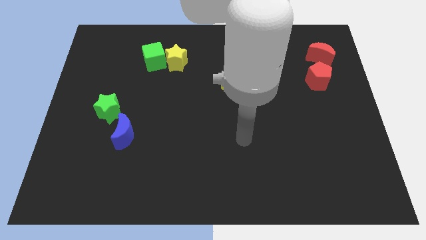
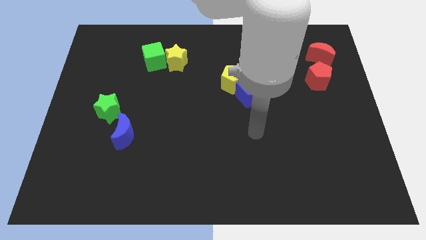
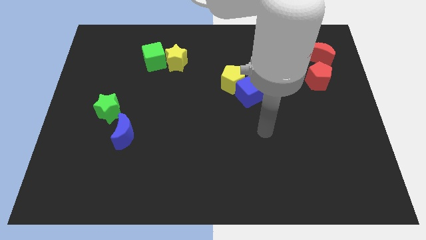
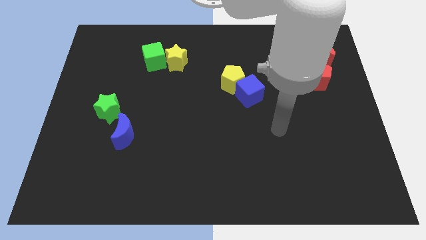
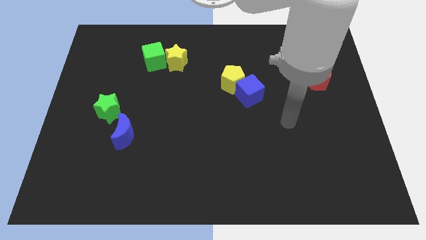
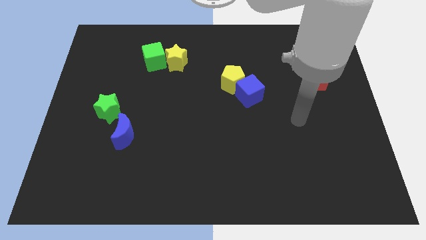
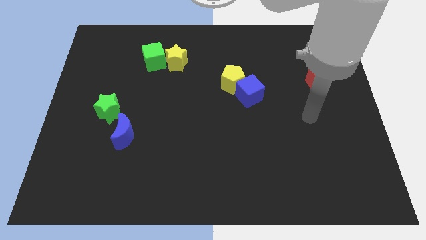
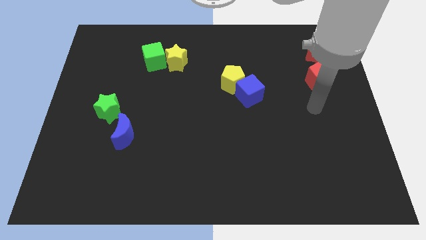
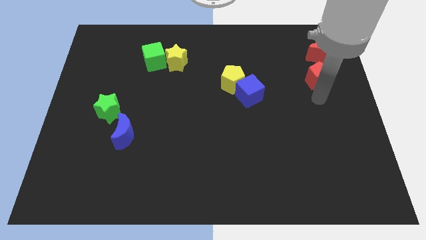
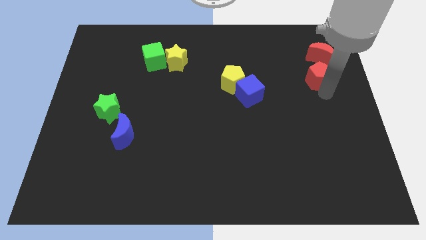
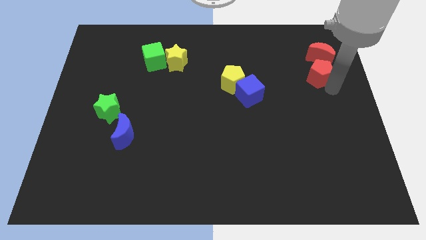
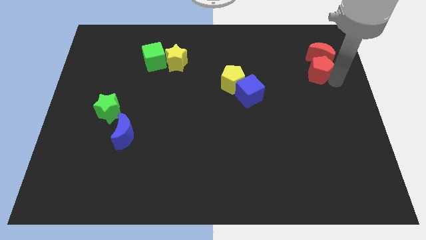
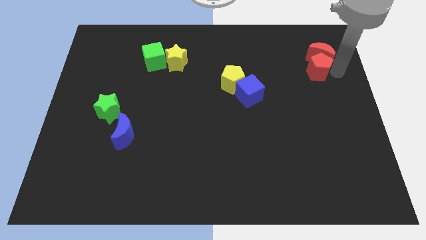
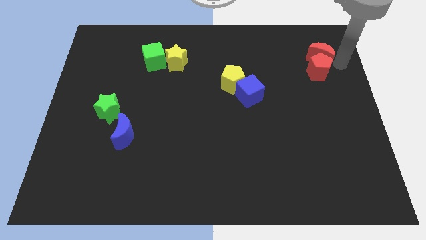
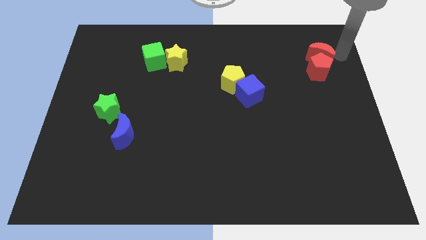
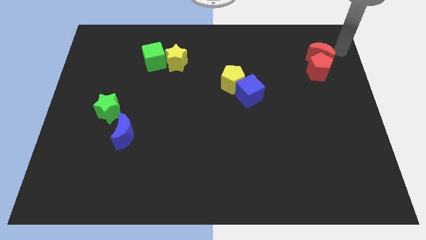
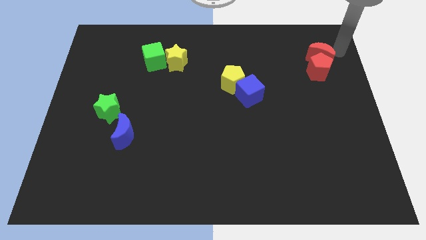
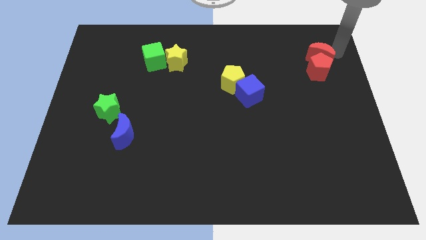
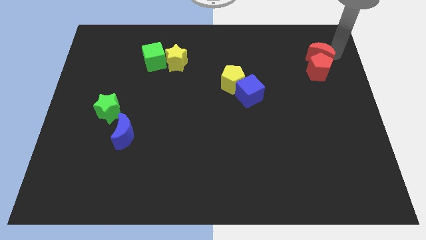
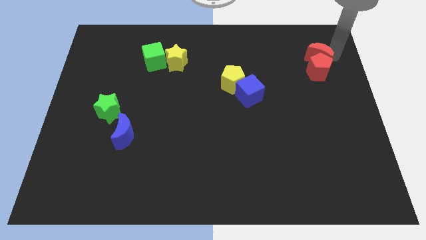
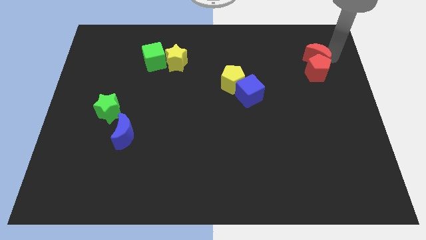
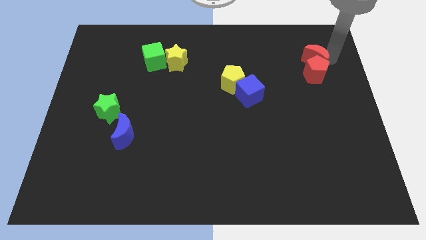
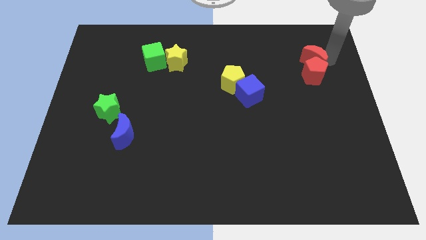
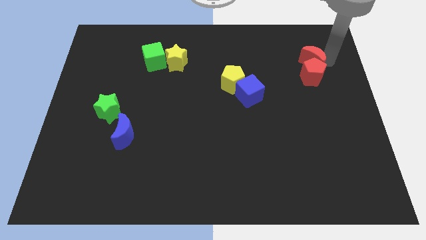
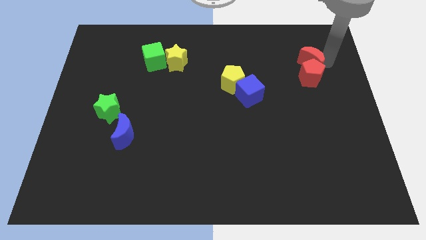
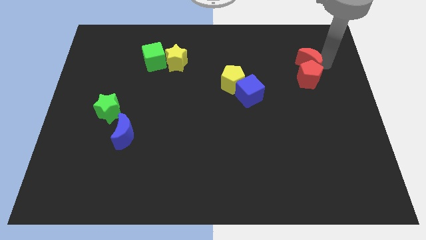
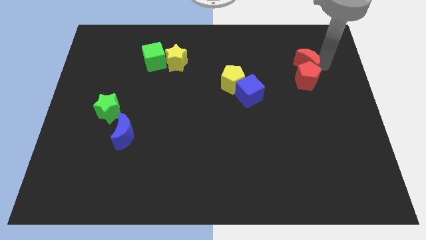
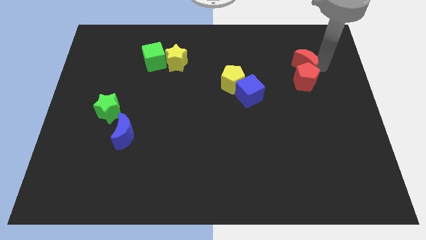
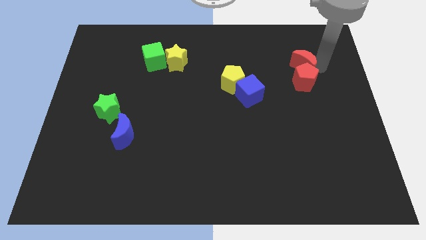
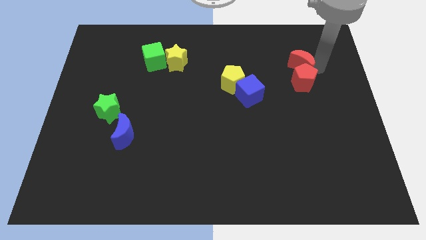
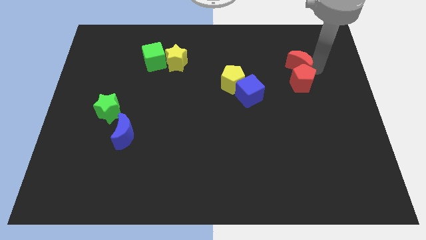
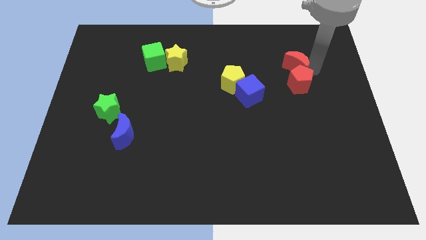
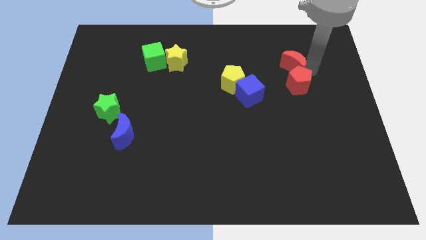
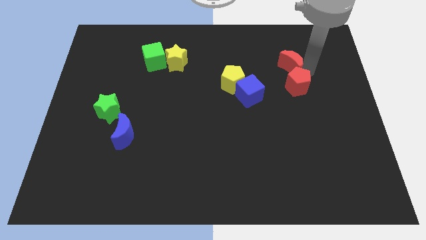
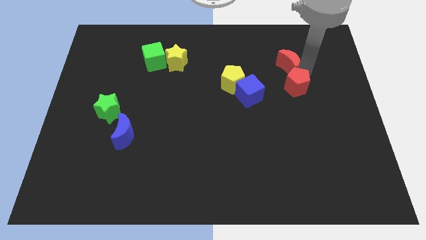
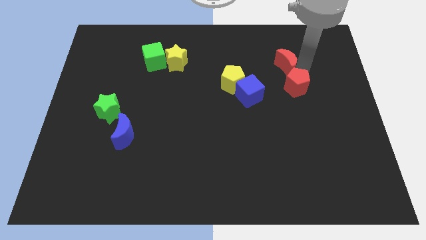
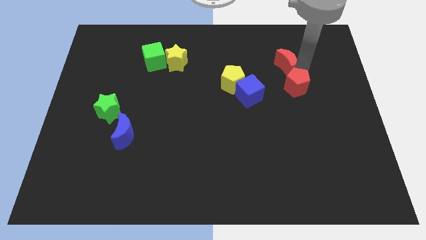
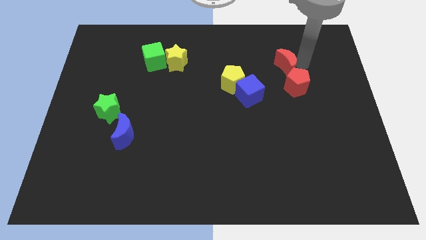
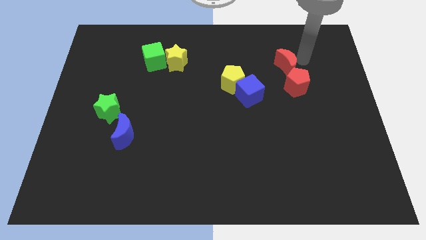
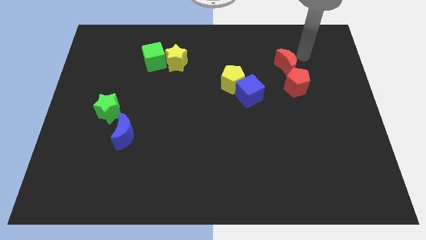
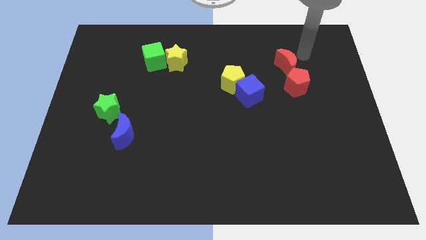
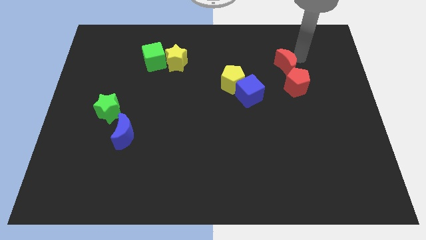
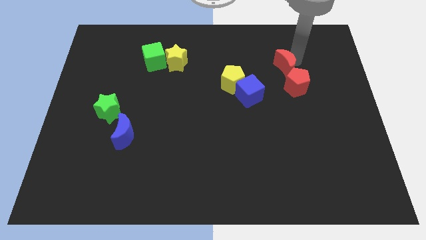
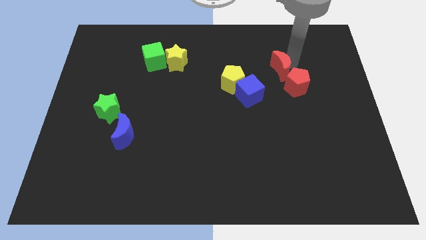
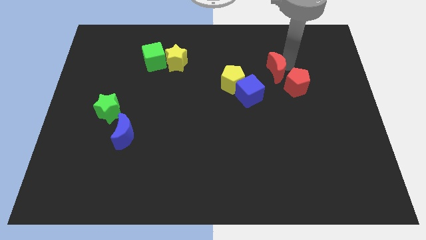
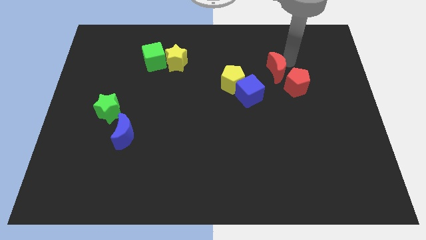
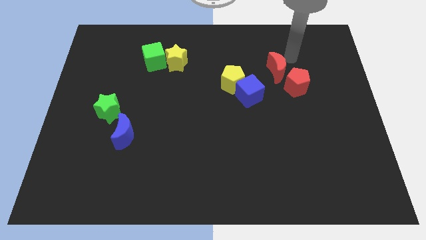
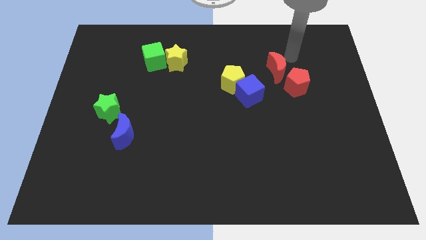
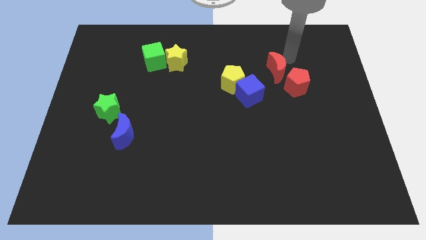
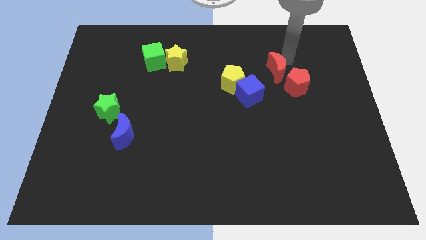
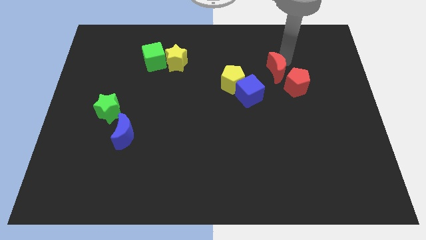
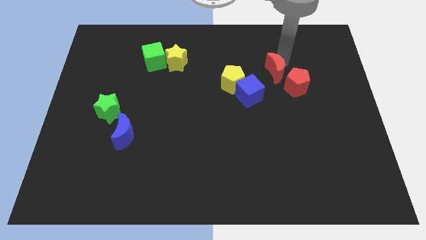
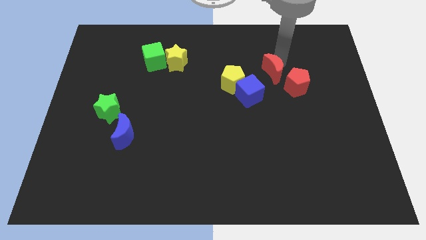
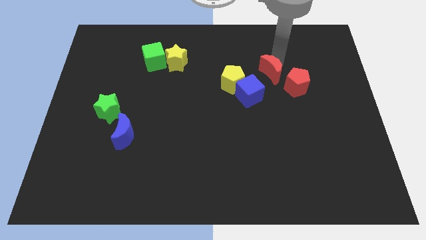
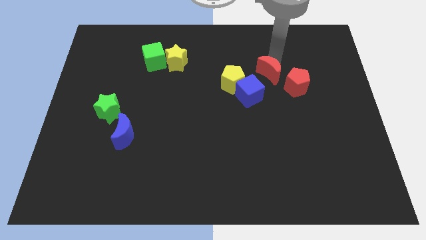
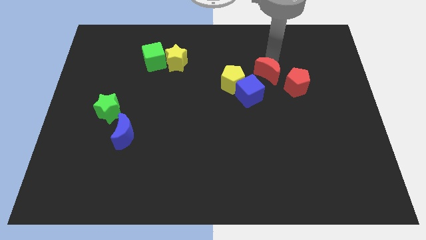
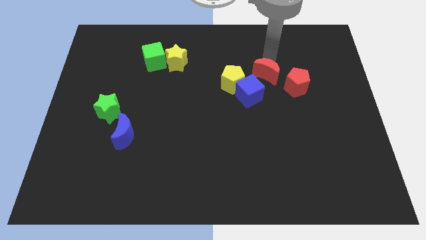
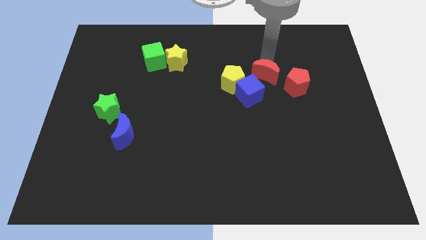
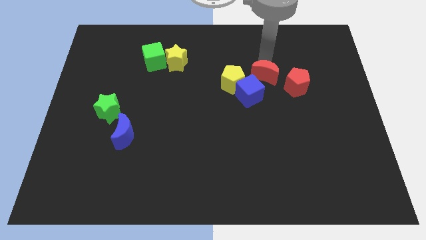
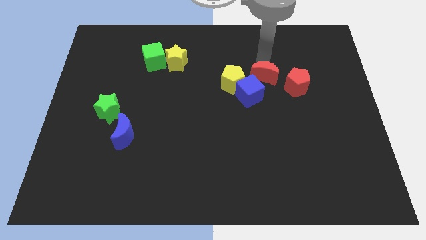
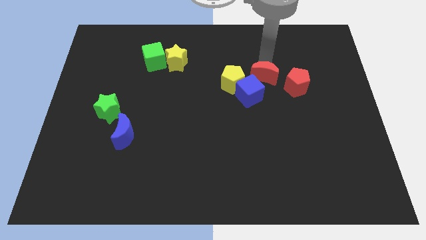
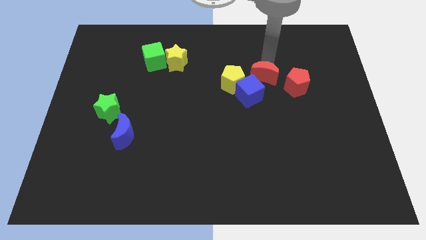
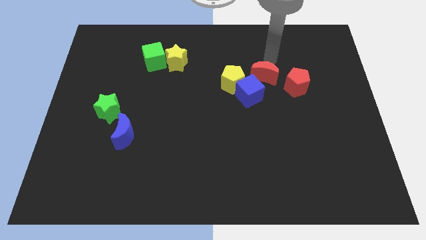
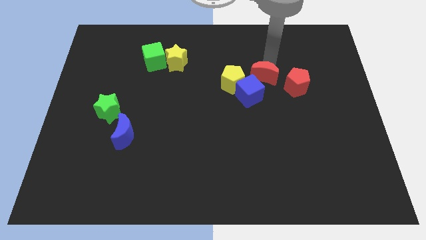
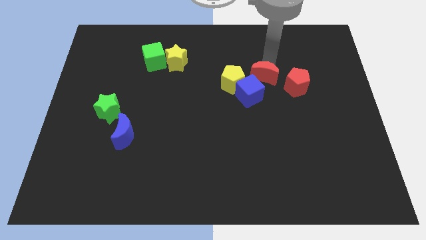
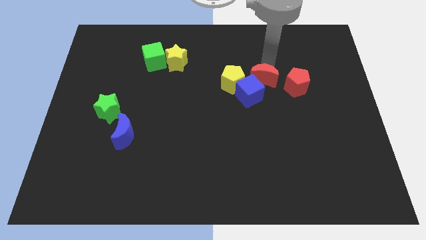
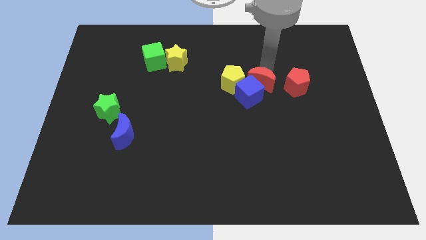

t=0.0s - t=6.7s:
put the red moon next to the blue cube

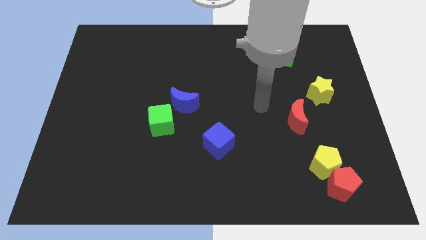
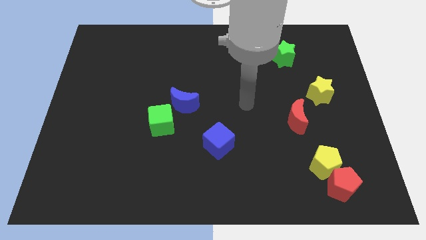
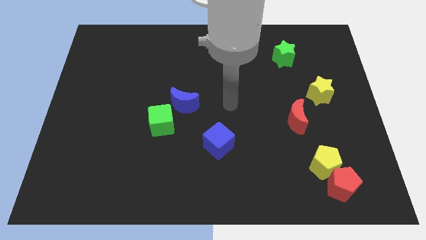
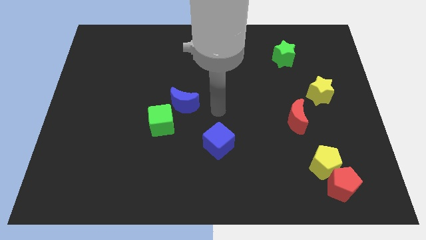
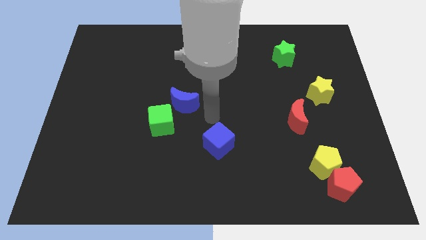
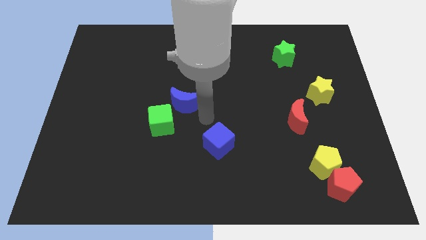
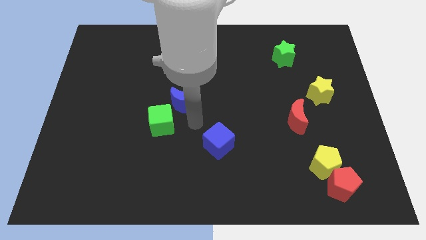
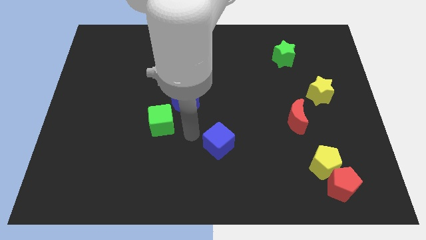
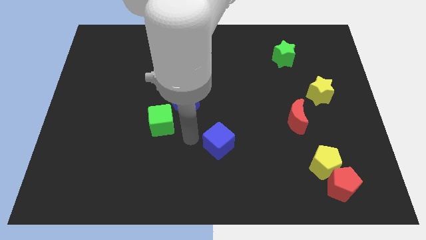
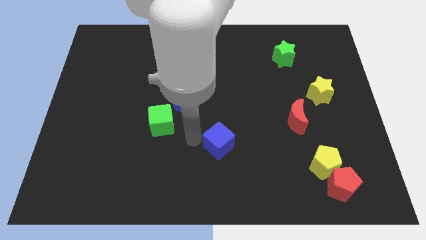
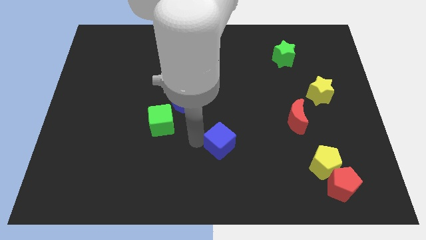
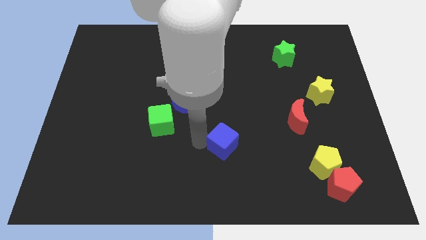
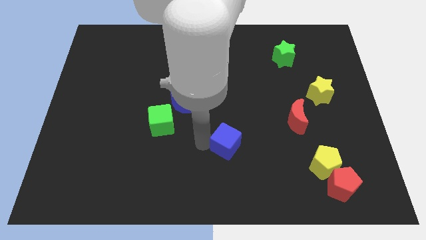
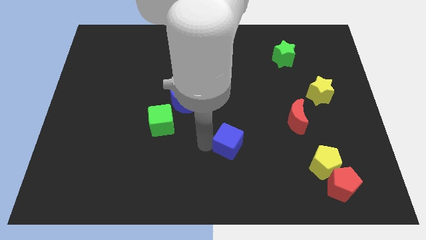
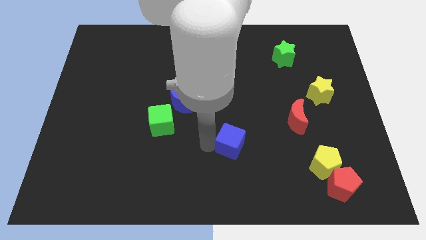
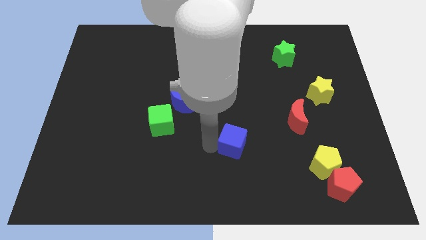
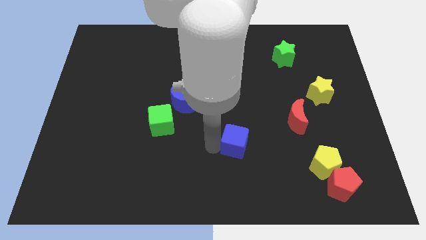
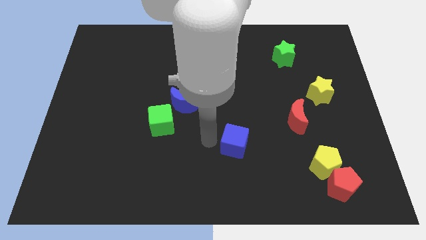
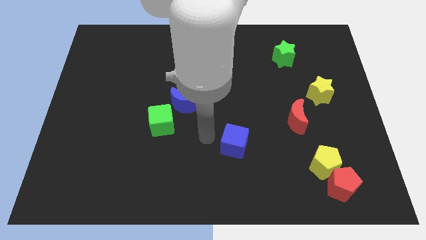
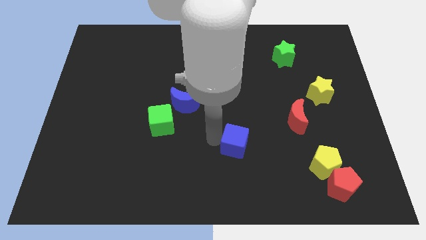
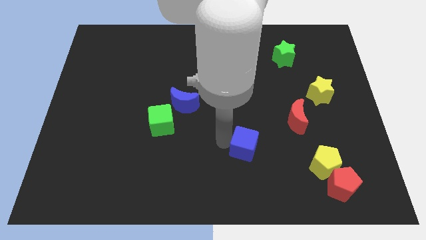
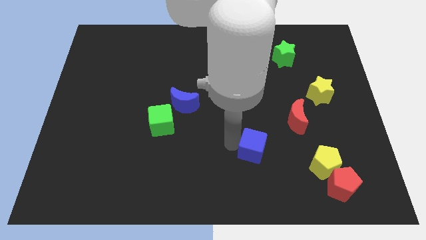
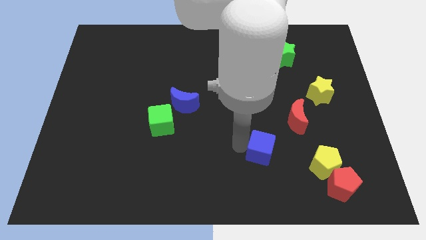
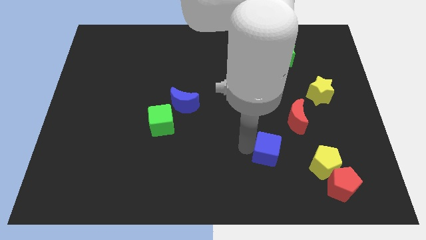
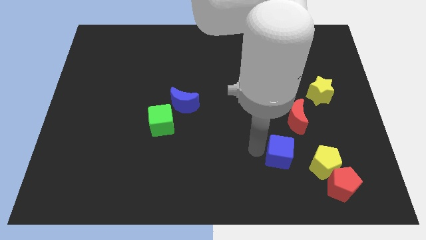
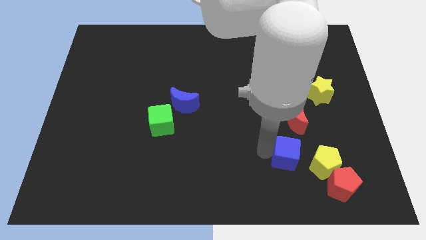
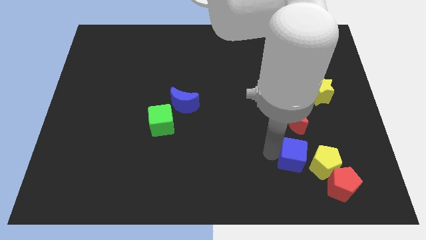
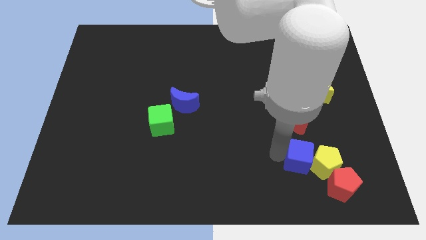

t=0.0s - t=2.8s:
push the blue cube towards the yellow pentagon
